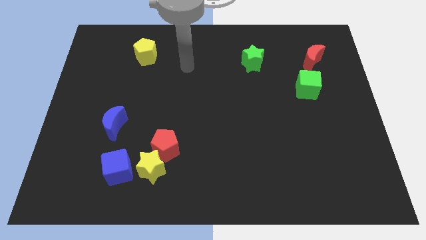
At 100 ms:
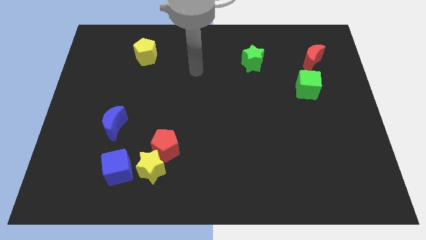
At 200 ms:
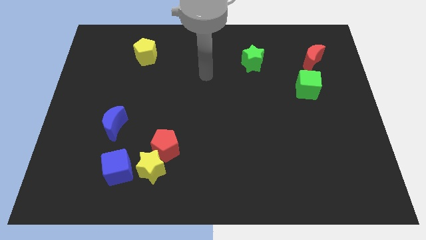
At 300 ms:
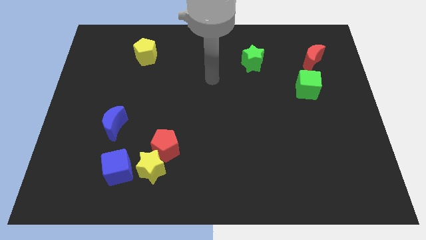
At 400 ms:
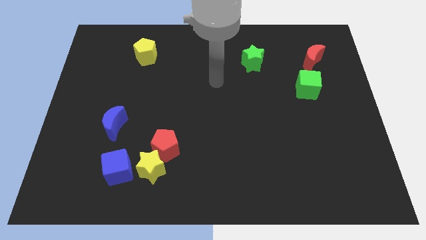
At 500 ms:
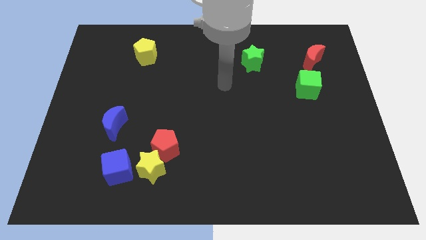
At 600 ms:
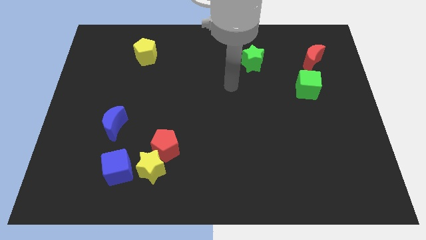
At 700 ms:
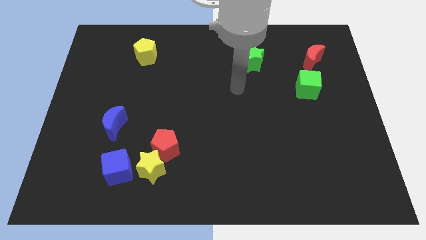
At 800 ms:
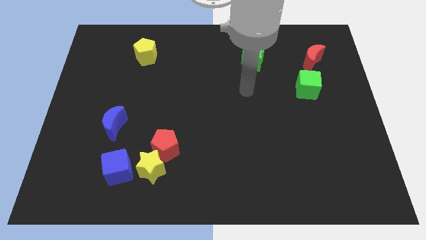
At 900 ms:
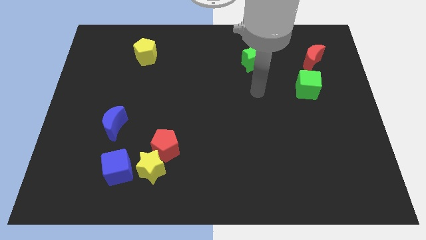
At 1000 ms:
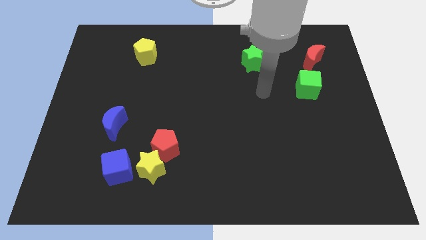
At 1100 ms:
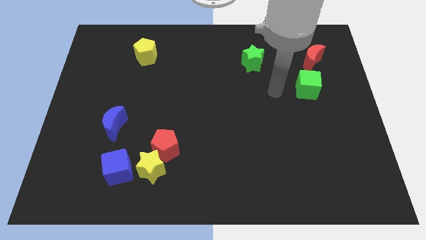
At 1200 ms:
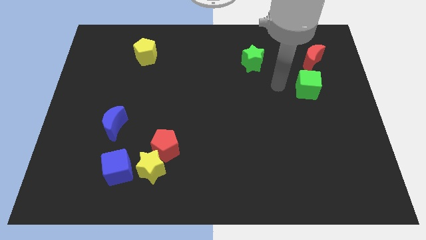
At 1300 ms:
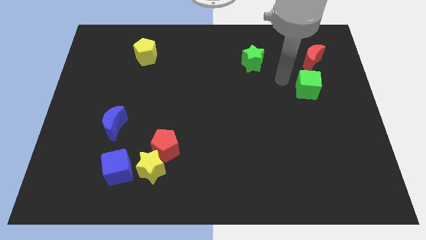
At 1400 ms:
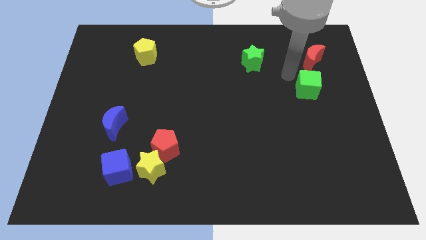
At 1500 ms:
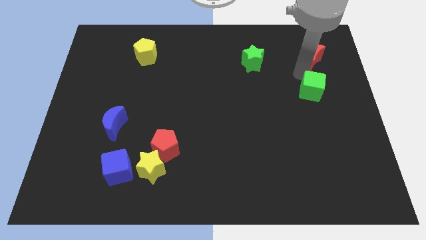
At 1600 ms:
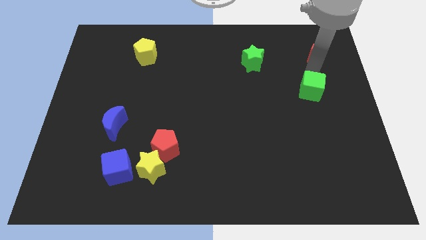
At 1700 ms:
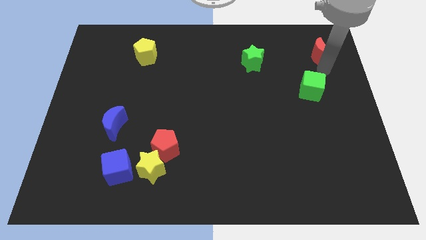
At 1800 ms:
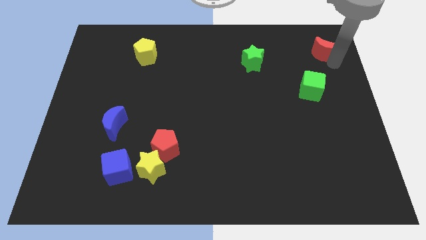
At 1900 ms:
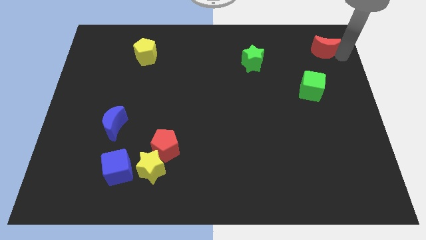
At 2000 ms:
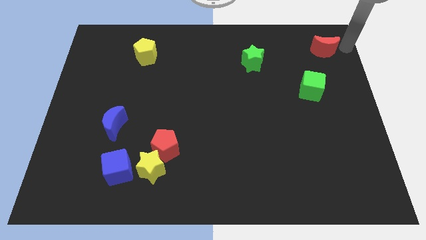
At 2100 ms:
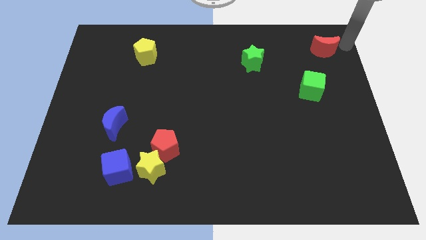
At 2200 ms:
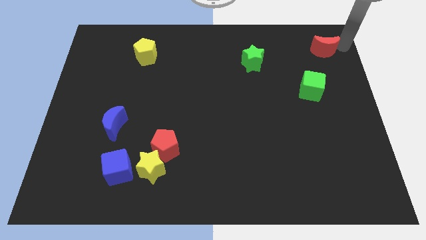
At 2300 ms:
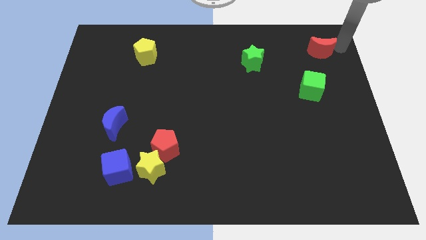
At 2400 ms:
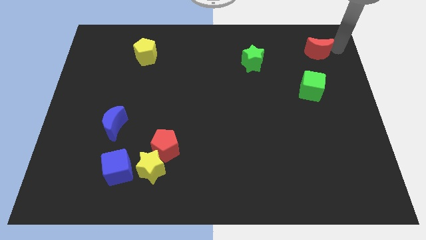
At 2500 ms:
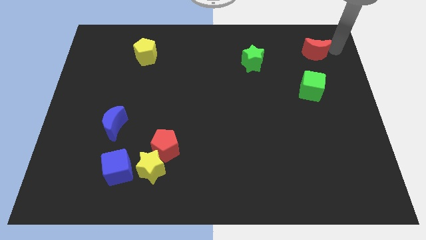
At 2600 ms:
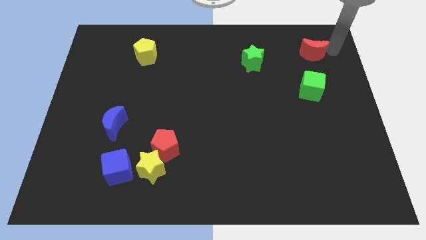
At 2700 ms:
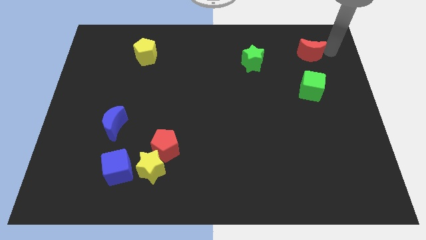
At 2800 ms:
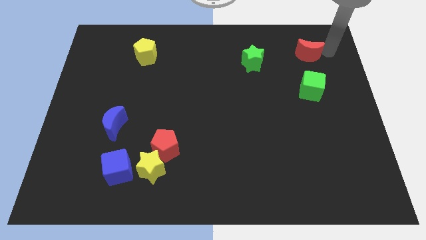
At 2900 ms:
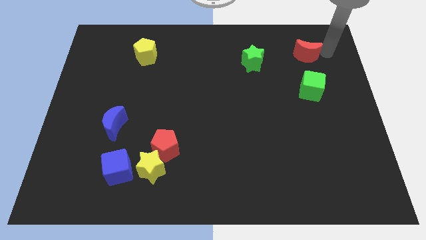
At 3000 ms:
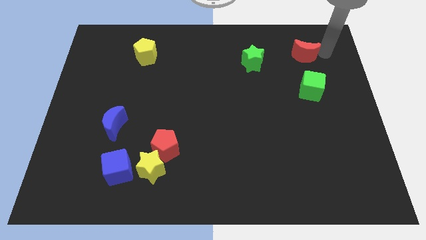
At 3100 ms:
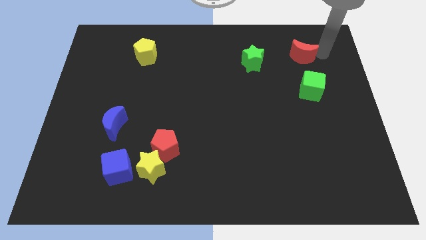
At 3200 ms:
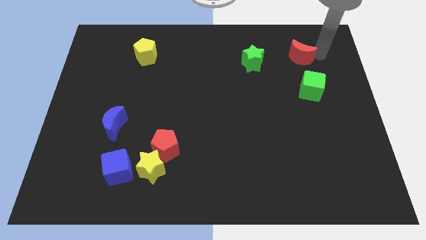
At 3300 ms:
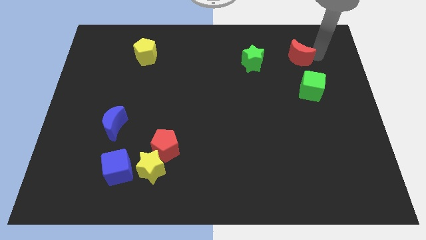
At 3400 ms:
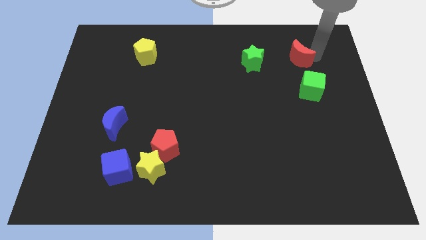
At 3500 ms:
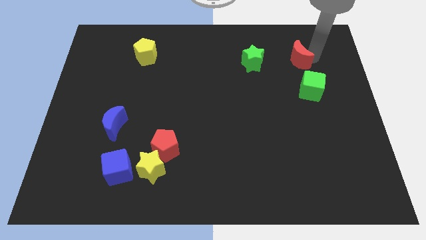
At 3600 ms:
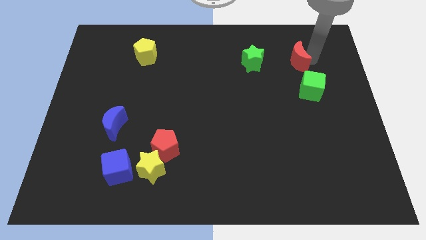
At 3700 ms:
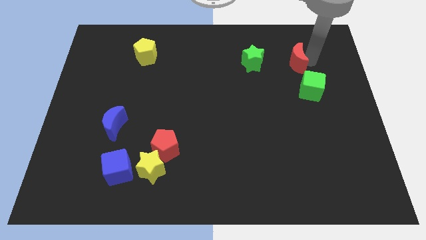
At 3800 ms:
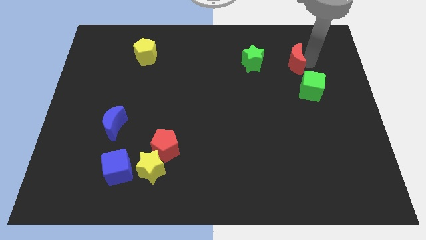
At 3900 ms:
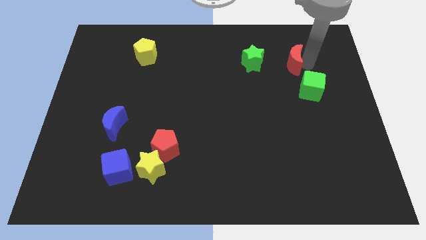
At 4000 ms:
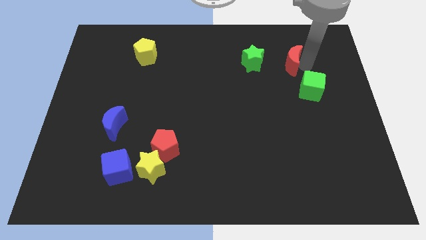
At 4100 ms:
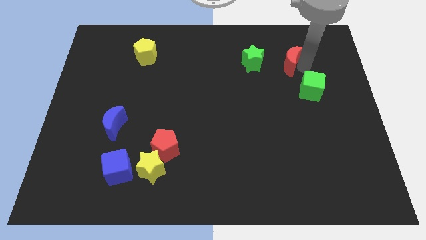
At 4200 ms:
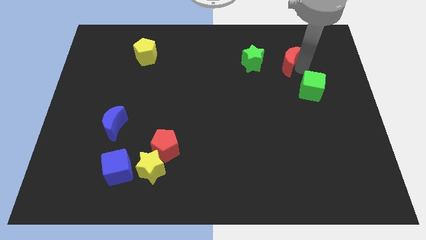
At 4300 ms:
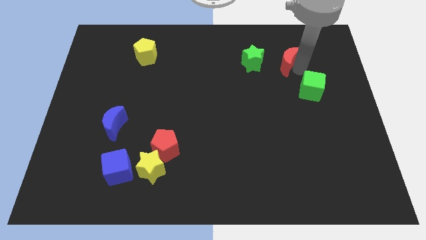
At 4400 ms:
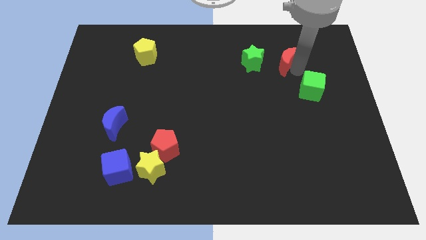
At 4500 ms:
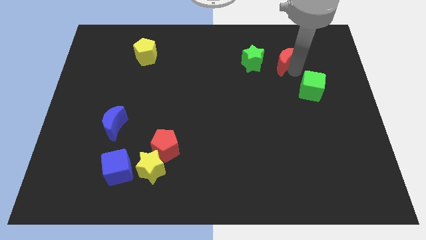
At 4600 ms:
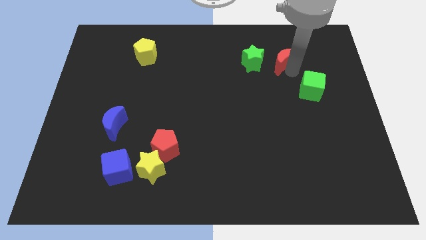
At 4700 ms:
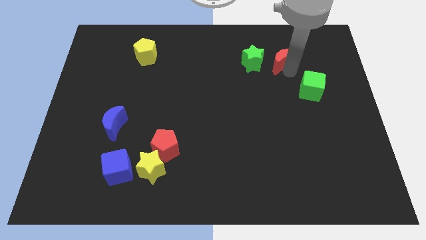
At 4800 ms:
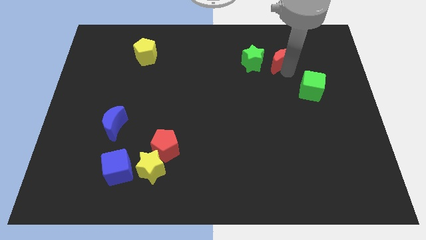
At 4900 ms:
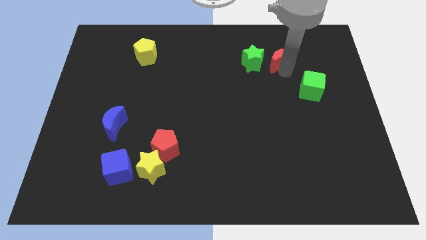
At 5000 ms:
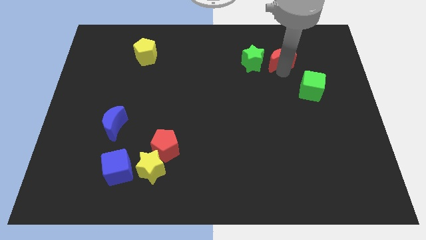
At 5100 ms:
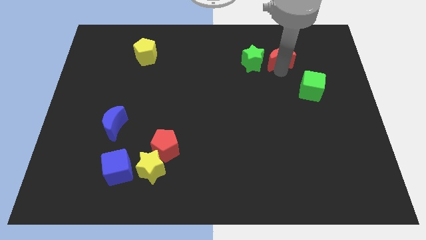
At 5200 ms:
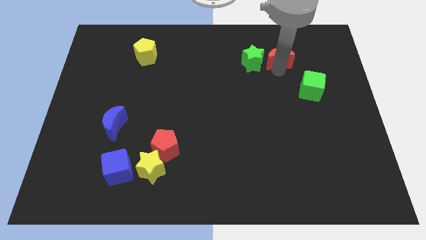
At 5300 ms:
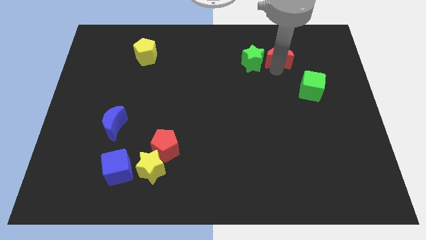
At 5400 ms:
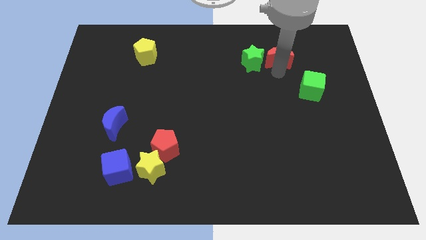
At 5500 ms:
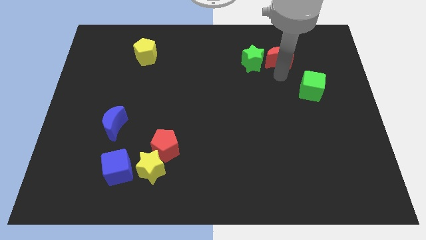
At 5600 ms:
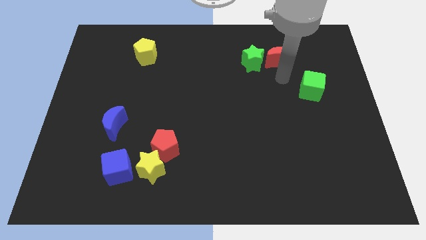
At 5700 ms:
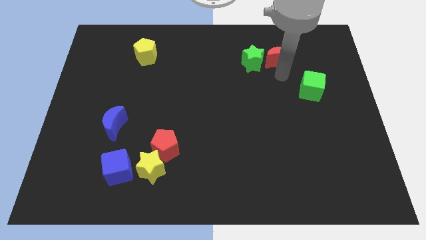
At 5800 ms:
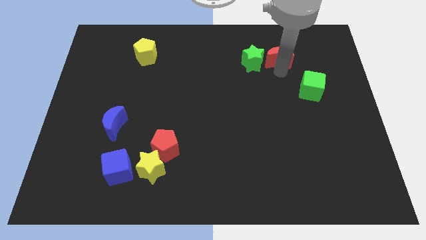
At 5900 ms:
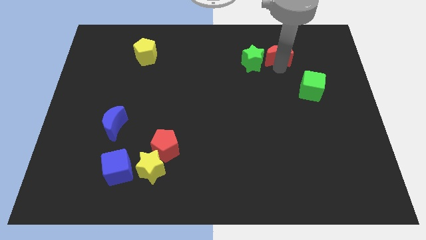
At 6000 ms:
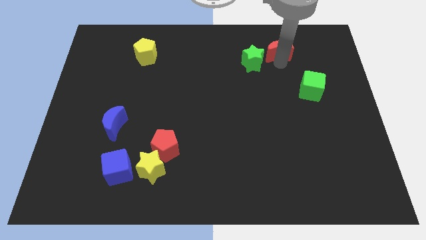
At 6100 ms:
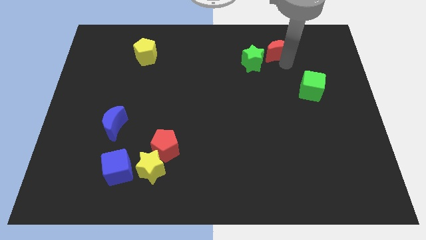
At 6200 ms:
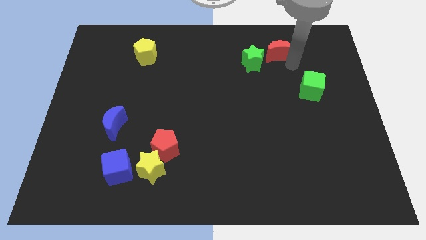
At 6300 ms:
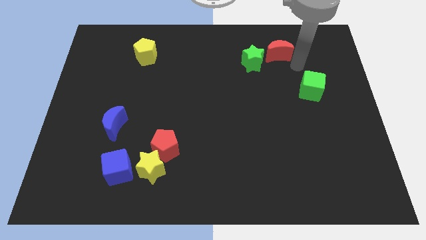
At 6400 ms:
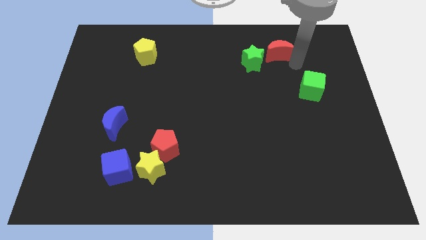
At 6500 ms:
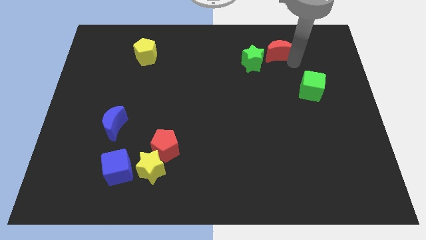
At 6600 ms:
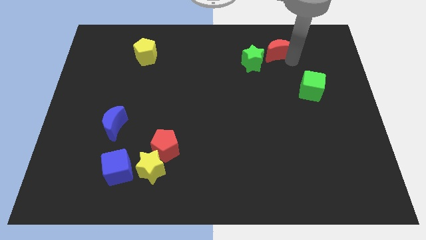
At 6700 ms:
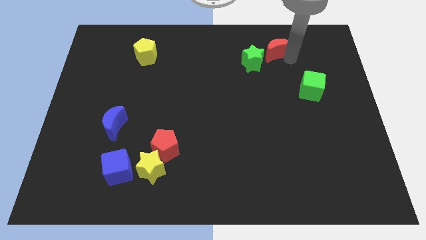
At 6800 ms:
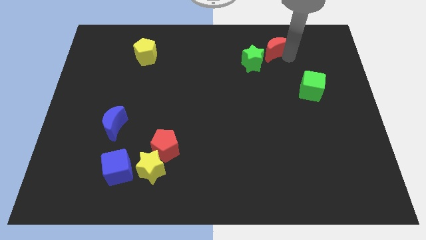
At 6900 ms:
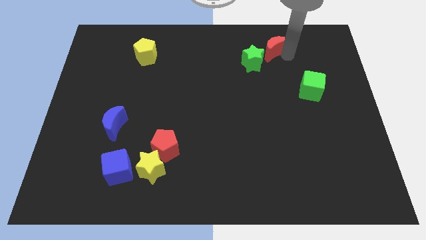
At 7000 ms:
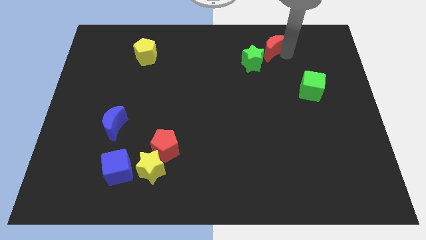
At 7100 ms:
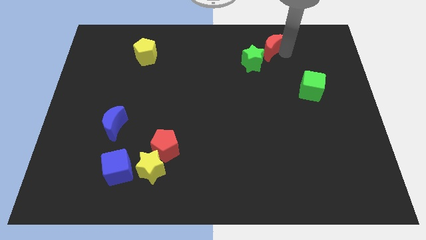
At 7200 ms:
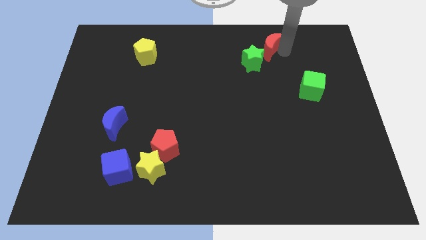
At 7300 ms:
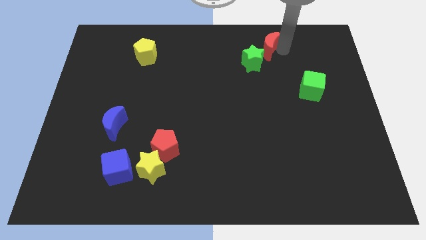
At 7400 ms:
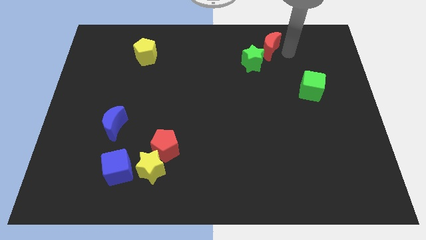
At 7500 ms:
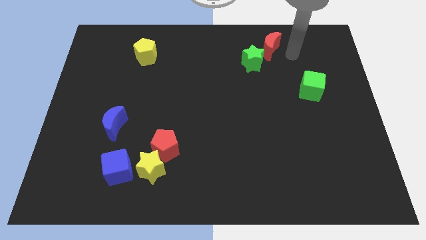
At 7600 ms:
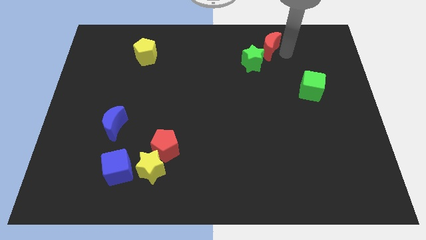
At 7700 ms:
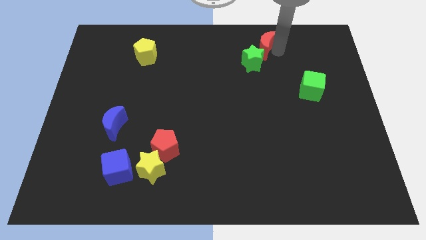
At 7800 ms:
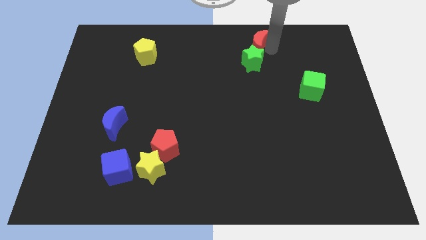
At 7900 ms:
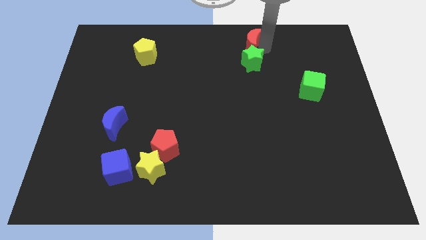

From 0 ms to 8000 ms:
move the red moon to the top side
